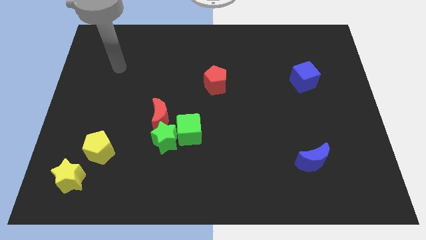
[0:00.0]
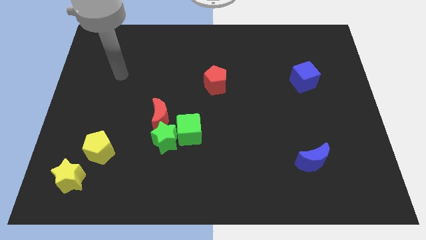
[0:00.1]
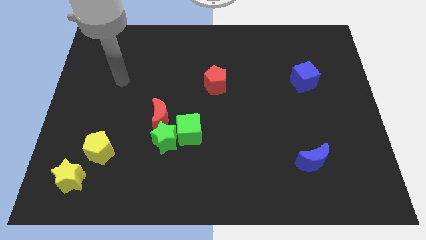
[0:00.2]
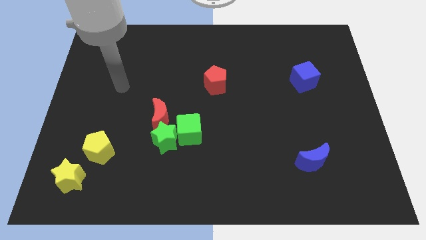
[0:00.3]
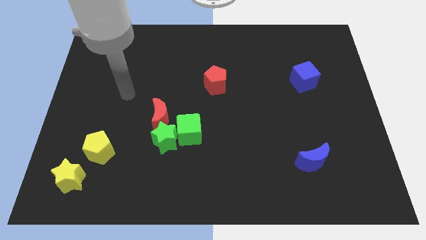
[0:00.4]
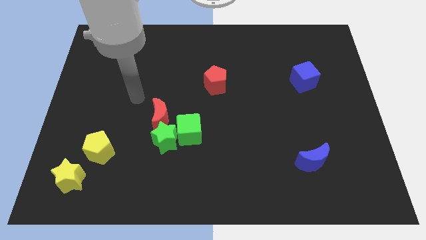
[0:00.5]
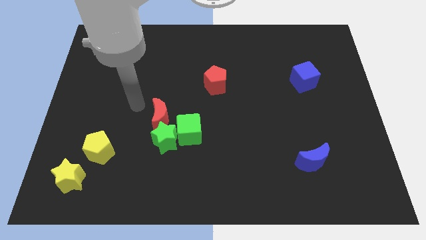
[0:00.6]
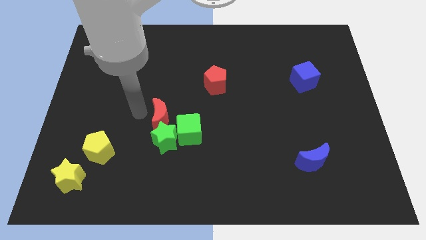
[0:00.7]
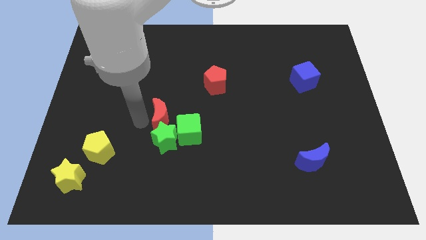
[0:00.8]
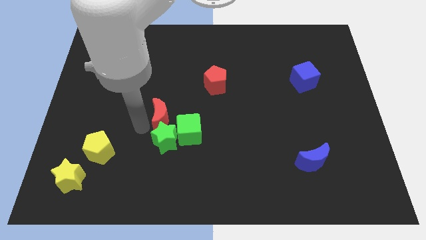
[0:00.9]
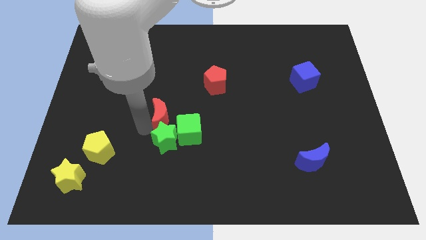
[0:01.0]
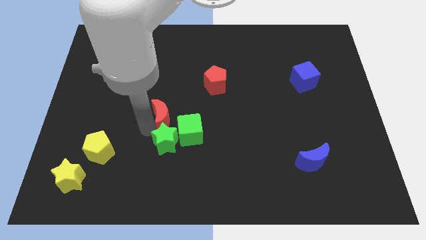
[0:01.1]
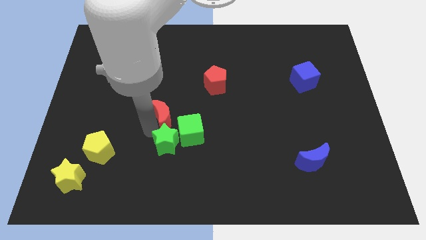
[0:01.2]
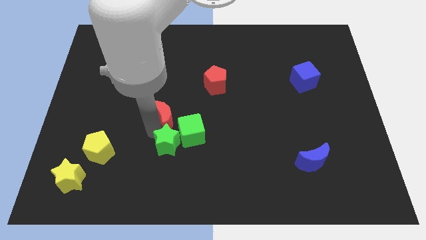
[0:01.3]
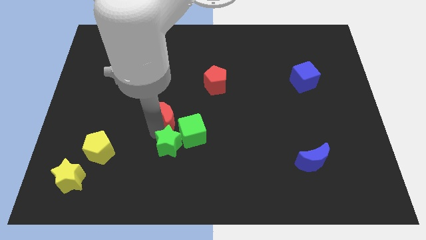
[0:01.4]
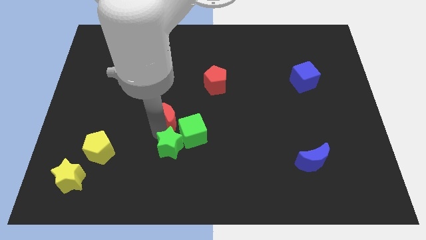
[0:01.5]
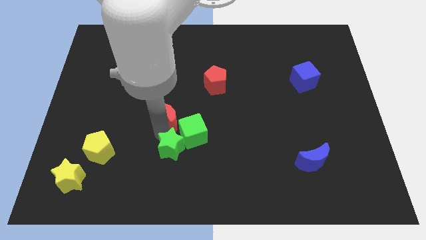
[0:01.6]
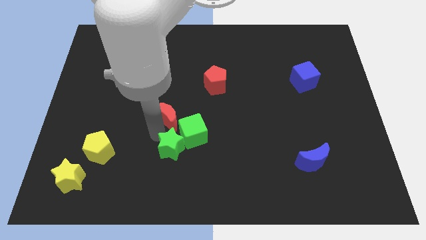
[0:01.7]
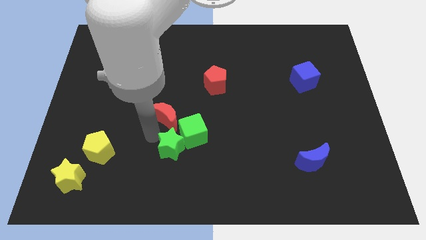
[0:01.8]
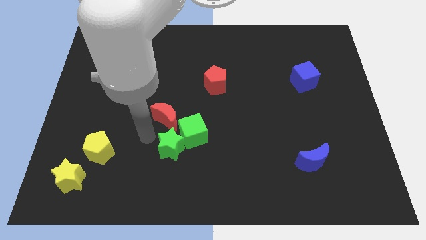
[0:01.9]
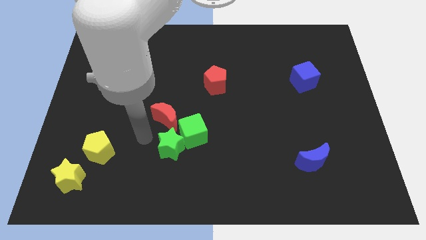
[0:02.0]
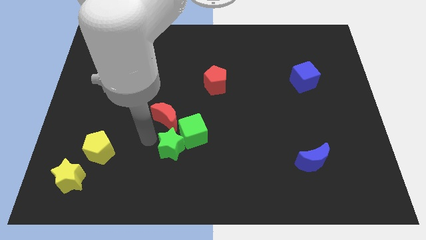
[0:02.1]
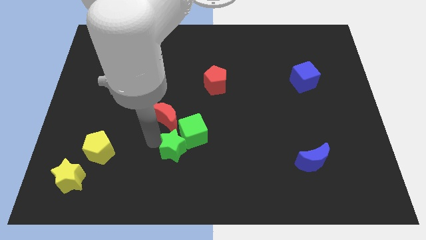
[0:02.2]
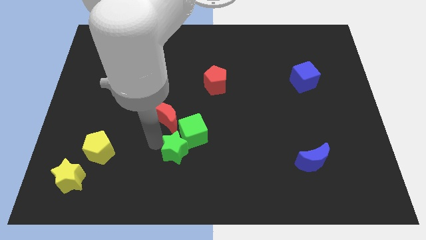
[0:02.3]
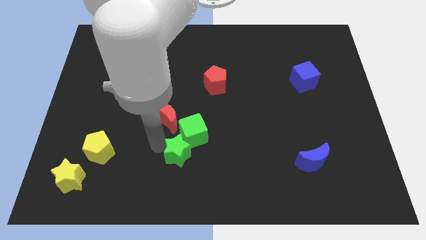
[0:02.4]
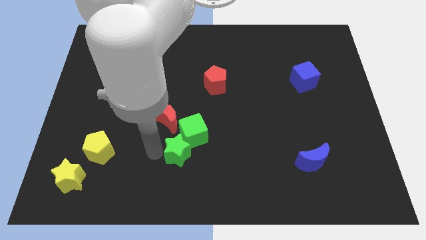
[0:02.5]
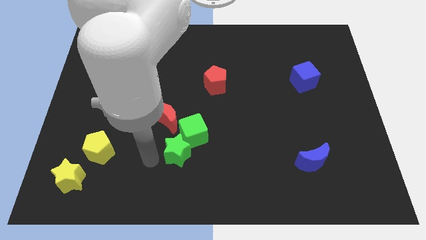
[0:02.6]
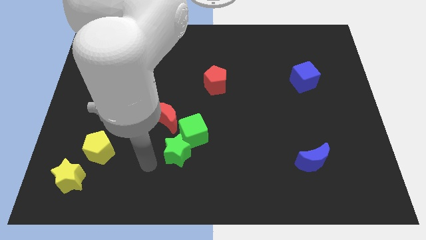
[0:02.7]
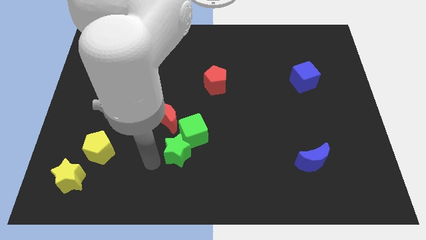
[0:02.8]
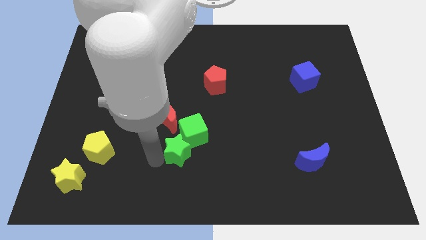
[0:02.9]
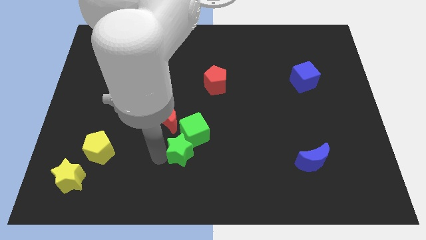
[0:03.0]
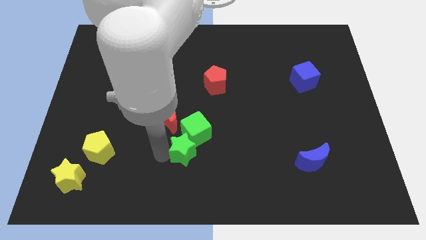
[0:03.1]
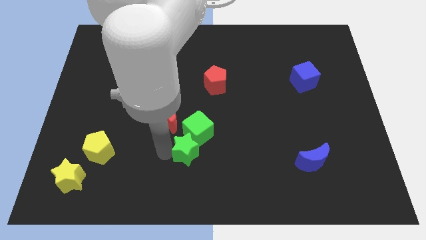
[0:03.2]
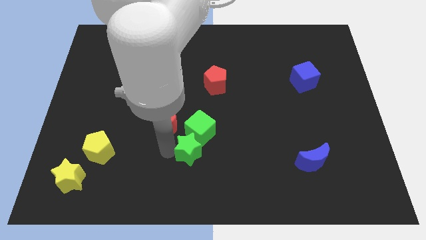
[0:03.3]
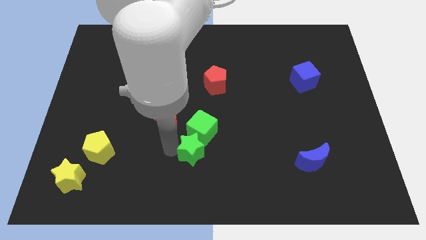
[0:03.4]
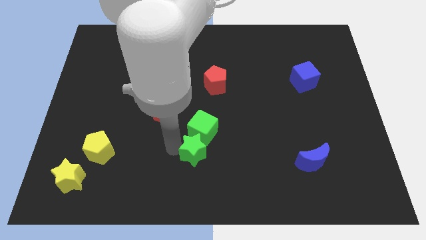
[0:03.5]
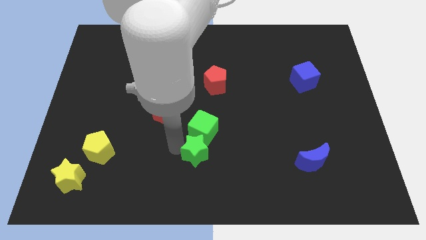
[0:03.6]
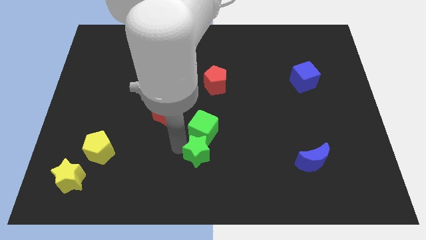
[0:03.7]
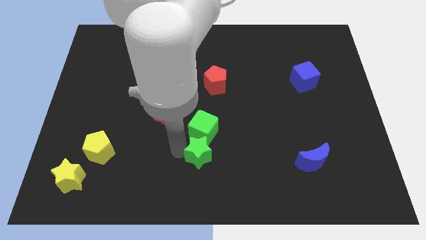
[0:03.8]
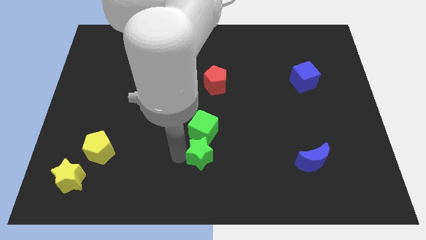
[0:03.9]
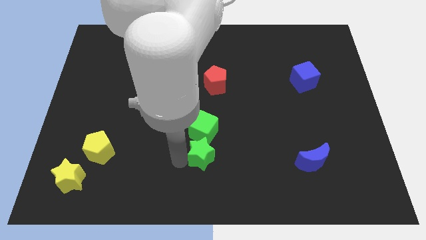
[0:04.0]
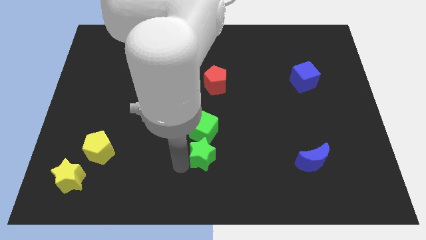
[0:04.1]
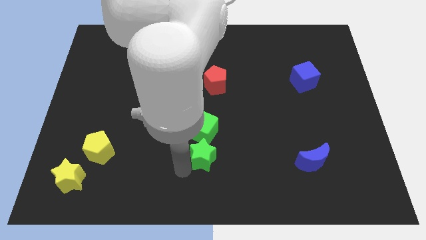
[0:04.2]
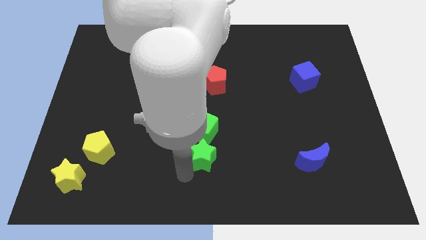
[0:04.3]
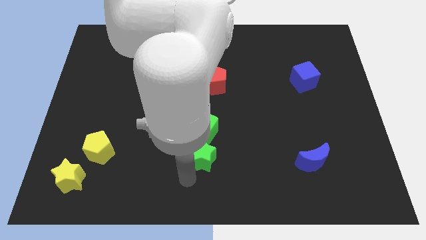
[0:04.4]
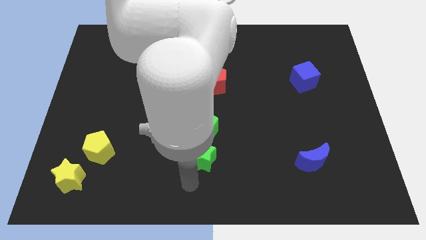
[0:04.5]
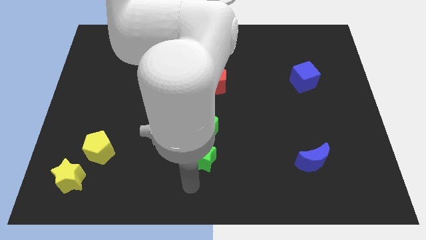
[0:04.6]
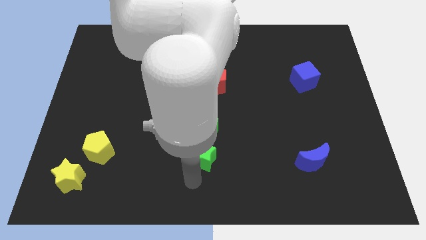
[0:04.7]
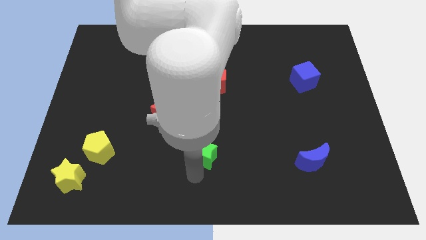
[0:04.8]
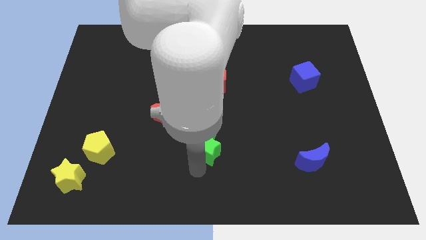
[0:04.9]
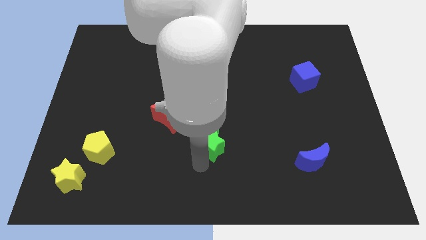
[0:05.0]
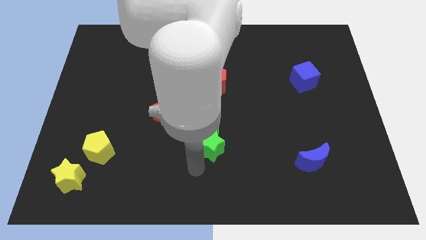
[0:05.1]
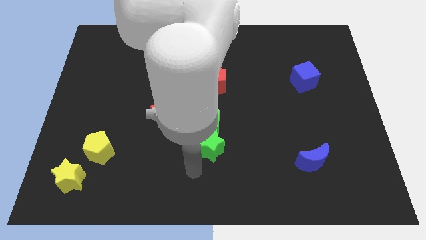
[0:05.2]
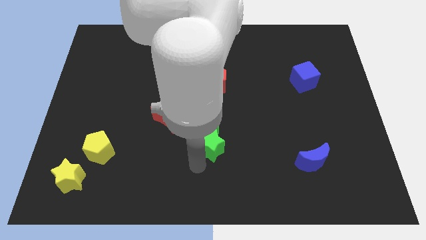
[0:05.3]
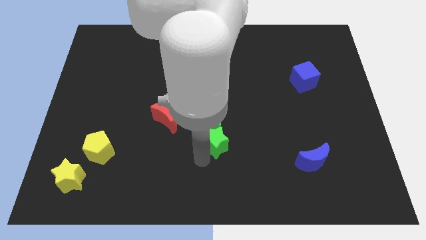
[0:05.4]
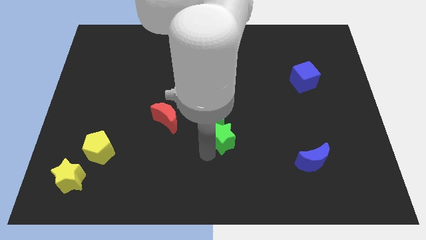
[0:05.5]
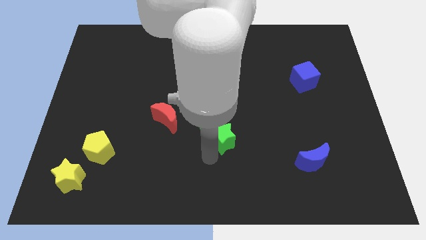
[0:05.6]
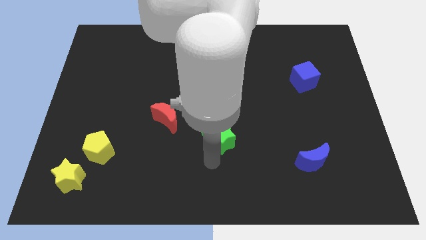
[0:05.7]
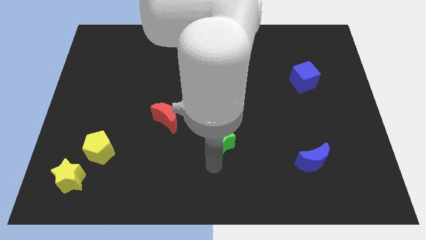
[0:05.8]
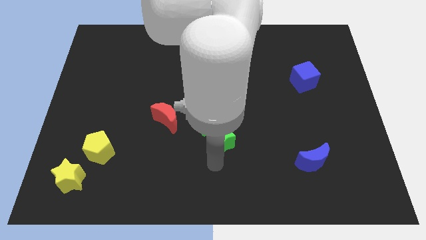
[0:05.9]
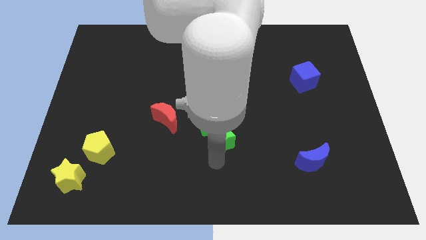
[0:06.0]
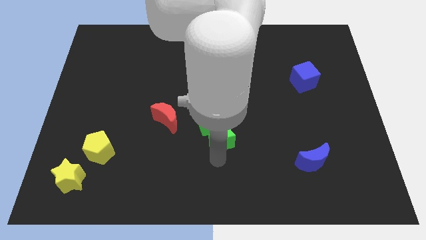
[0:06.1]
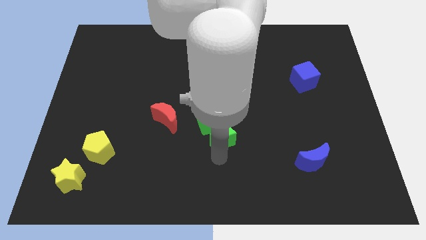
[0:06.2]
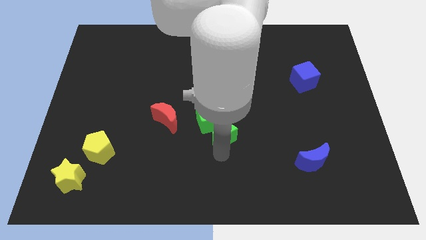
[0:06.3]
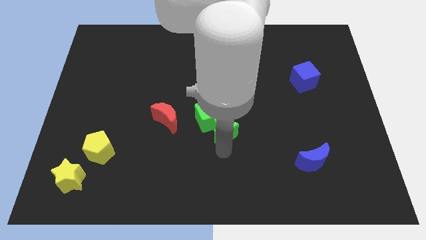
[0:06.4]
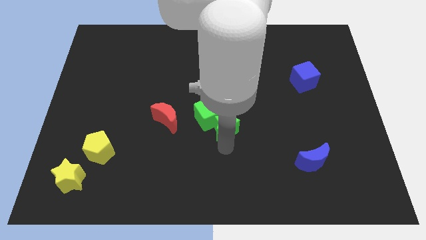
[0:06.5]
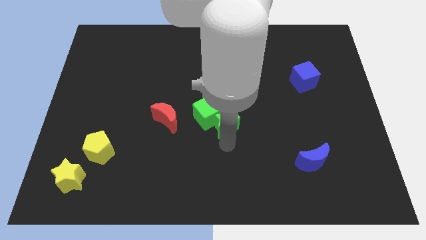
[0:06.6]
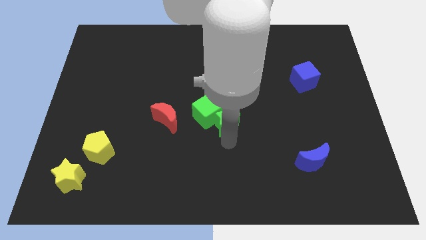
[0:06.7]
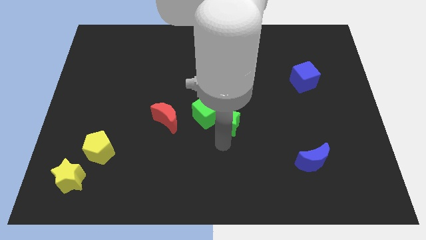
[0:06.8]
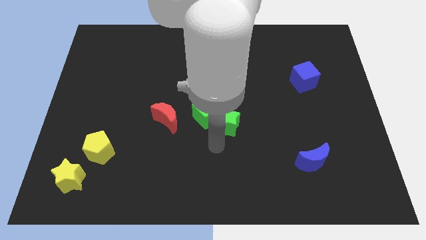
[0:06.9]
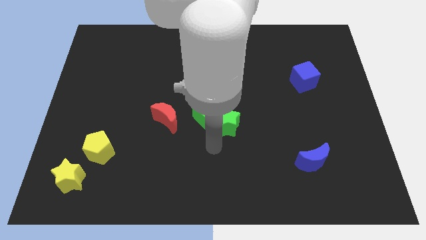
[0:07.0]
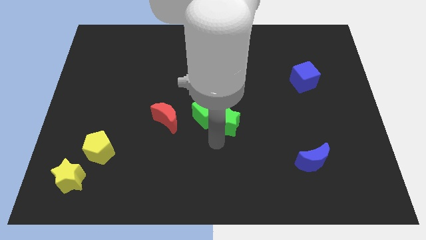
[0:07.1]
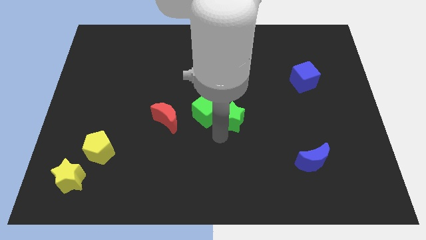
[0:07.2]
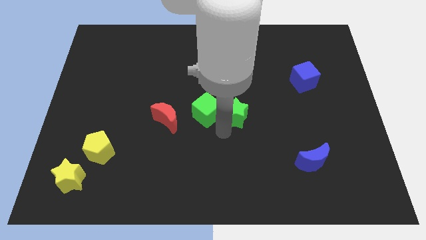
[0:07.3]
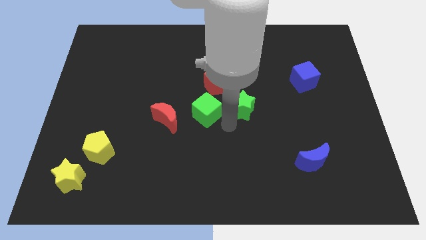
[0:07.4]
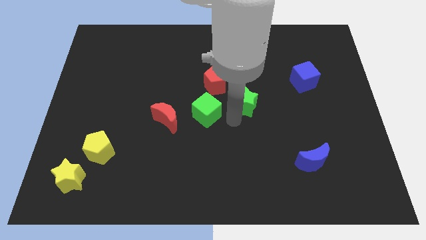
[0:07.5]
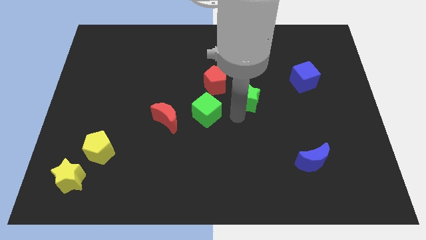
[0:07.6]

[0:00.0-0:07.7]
push the green star upwards and then to the right

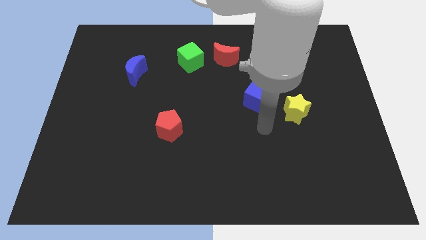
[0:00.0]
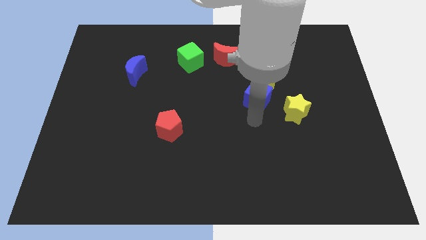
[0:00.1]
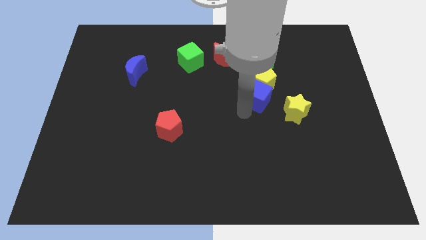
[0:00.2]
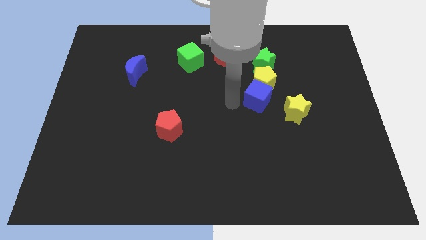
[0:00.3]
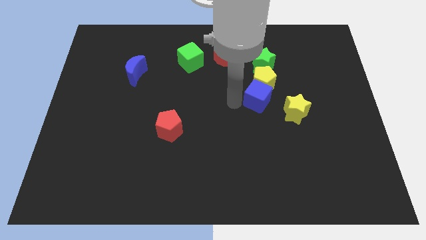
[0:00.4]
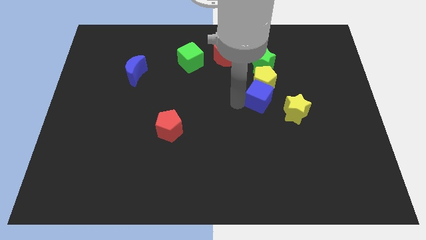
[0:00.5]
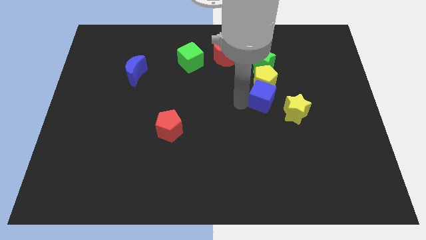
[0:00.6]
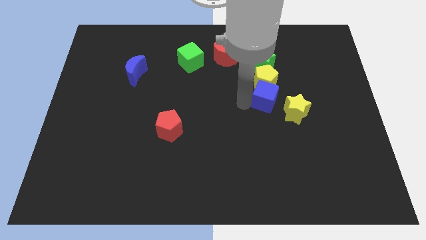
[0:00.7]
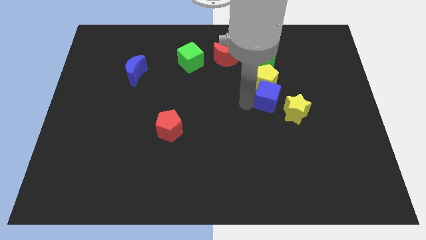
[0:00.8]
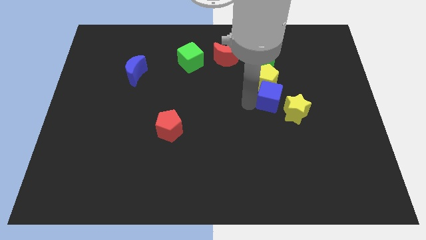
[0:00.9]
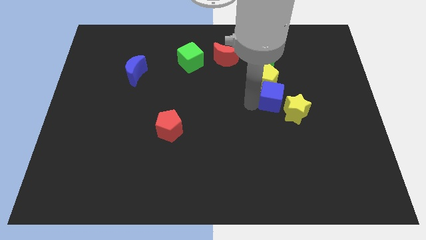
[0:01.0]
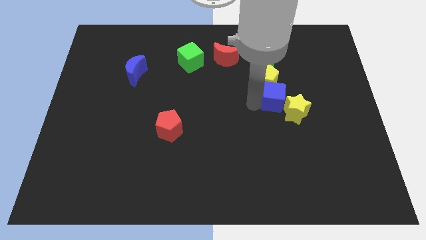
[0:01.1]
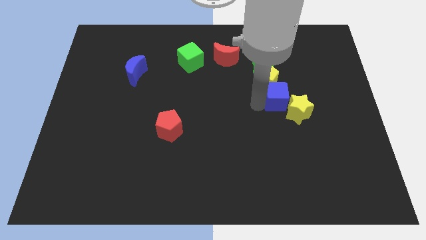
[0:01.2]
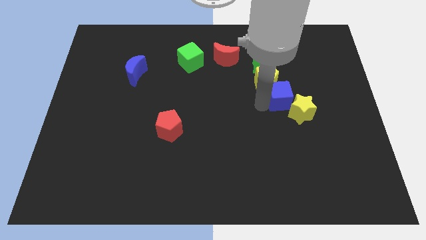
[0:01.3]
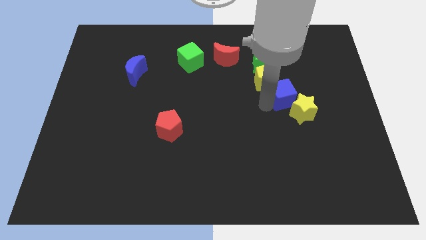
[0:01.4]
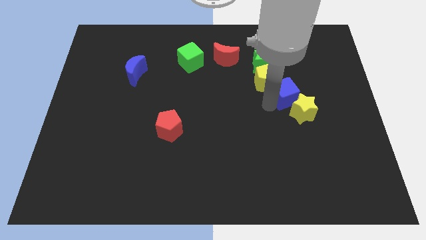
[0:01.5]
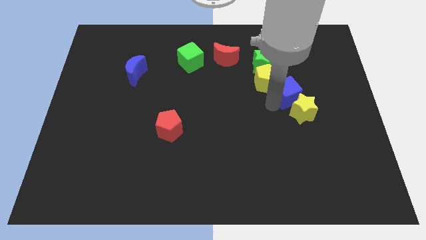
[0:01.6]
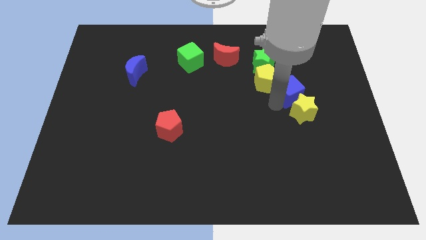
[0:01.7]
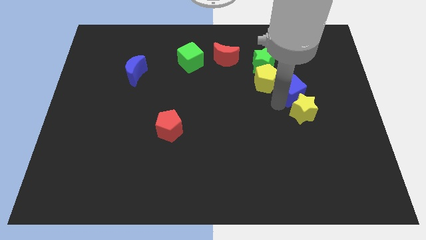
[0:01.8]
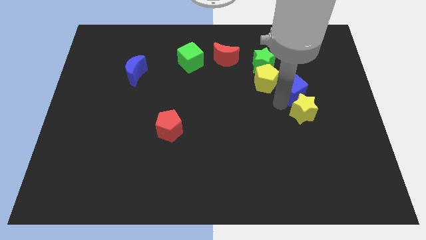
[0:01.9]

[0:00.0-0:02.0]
slightly move the blue cube diagonally upwards and to the right
